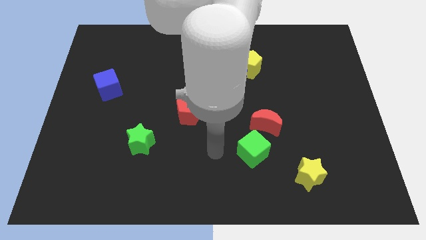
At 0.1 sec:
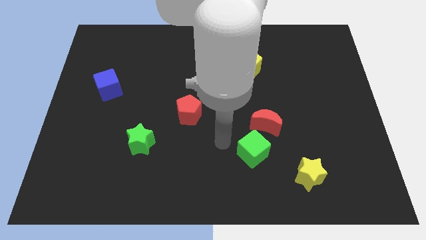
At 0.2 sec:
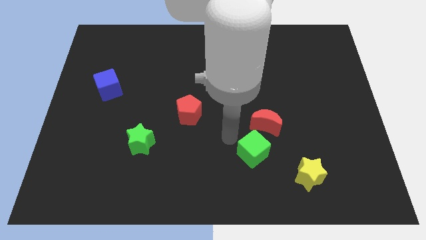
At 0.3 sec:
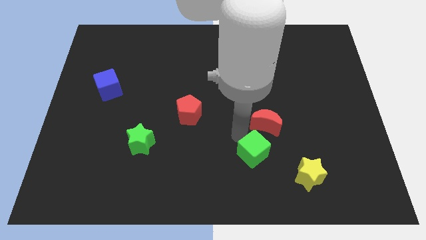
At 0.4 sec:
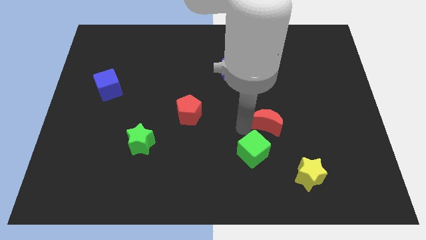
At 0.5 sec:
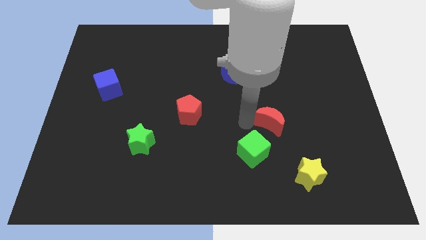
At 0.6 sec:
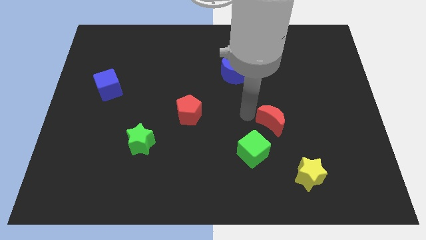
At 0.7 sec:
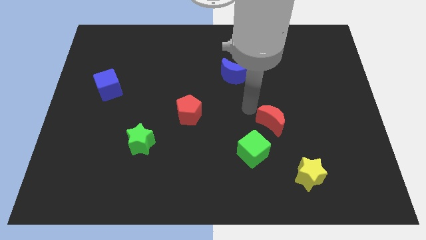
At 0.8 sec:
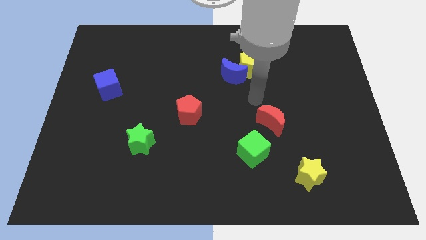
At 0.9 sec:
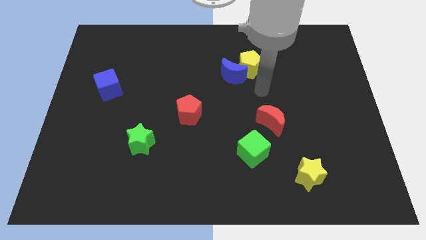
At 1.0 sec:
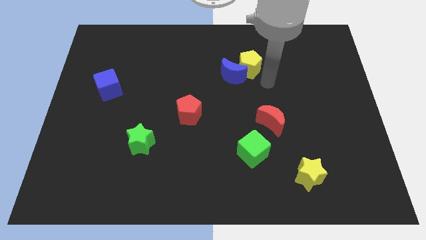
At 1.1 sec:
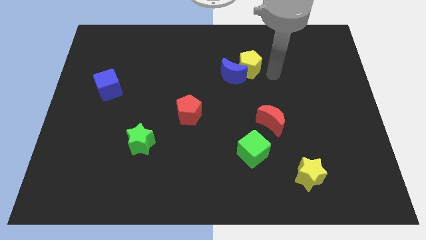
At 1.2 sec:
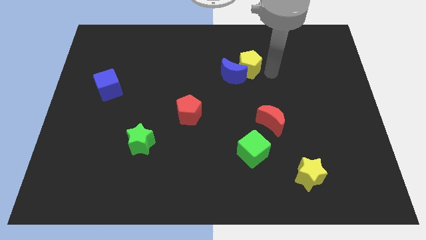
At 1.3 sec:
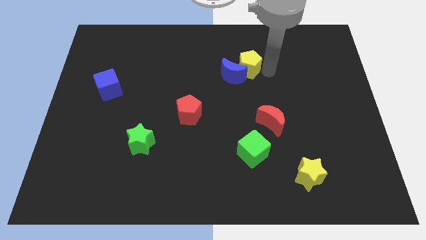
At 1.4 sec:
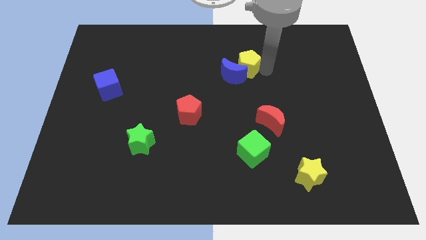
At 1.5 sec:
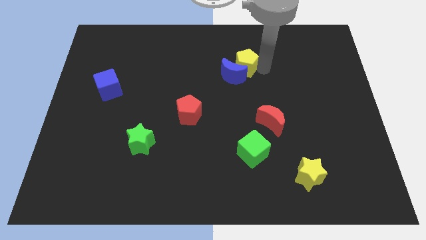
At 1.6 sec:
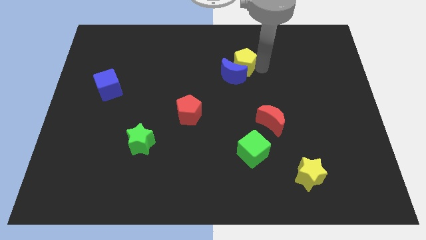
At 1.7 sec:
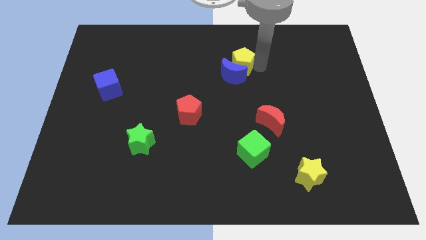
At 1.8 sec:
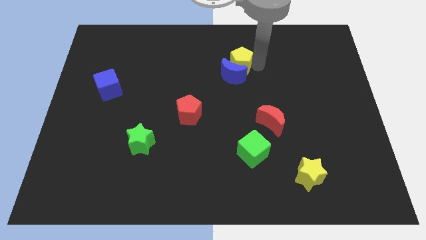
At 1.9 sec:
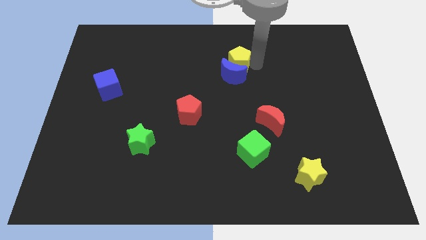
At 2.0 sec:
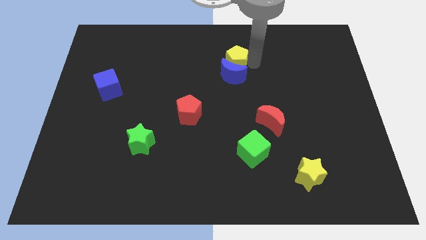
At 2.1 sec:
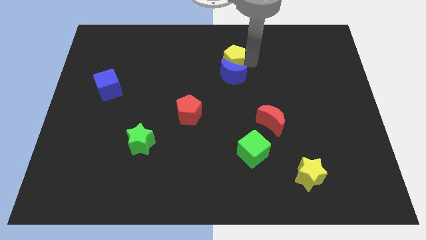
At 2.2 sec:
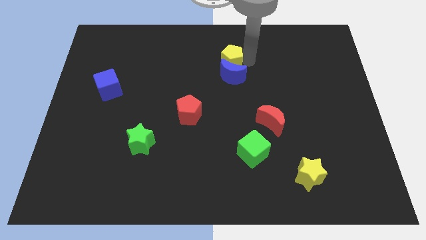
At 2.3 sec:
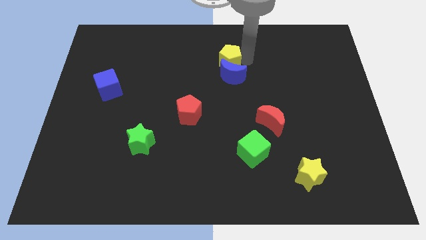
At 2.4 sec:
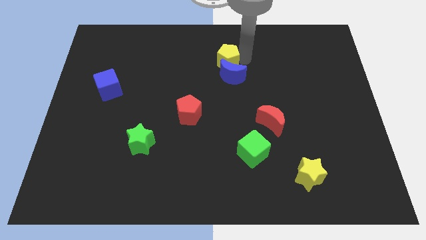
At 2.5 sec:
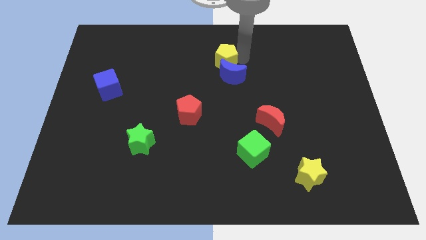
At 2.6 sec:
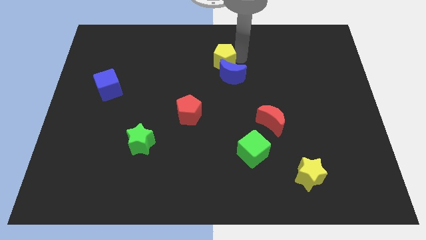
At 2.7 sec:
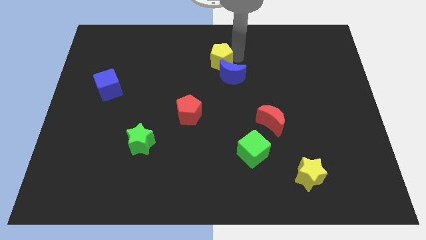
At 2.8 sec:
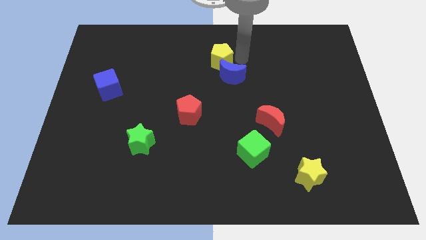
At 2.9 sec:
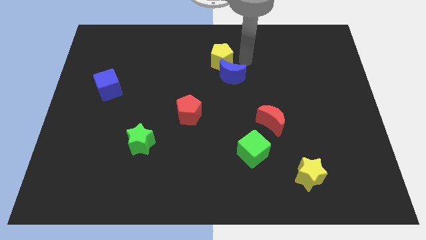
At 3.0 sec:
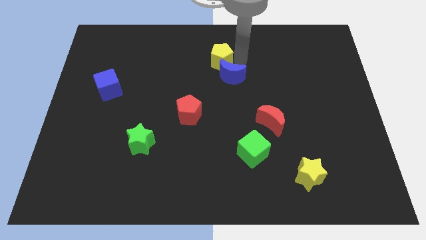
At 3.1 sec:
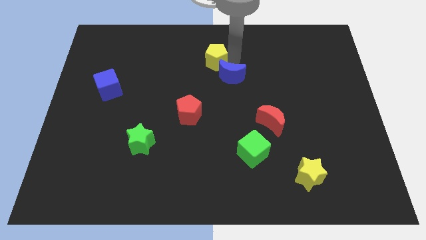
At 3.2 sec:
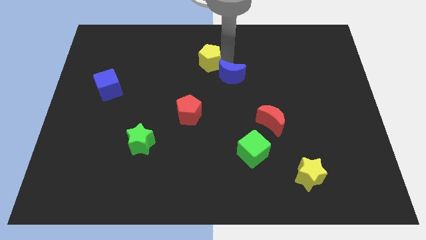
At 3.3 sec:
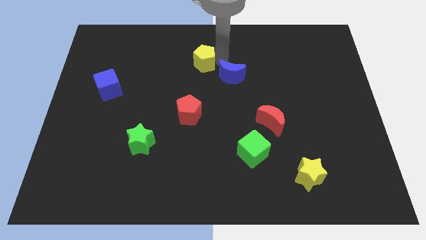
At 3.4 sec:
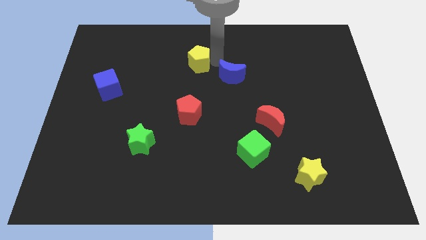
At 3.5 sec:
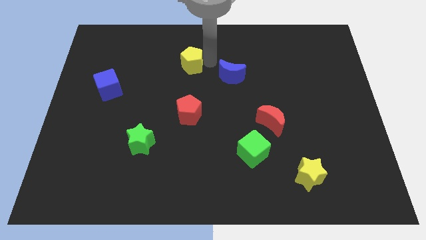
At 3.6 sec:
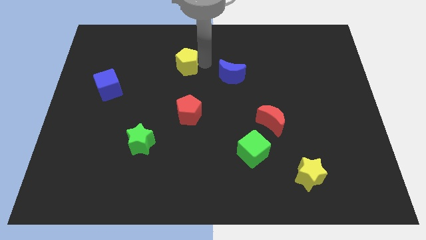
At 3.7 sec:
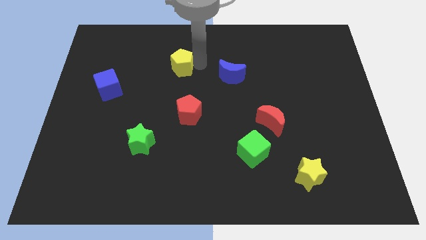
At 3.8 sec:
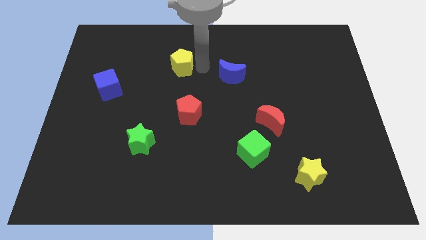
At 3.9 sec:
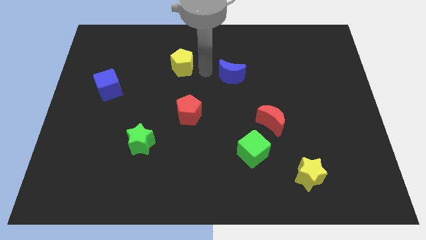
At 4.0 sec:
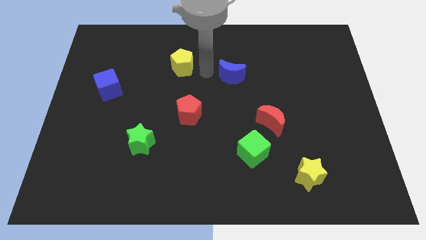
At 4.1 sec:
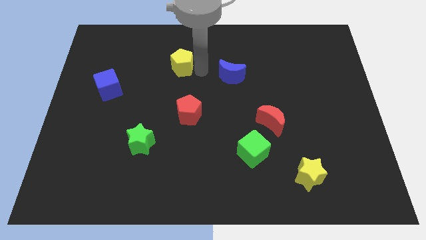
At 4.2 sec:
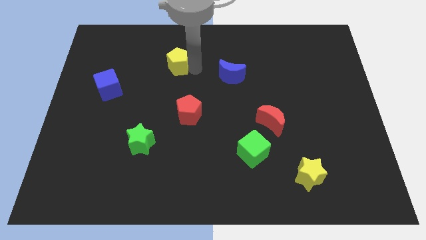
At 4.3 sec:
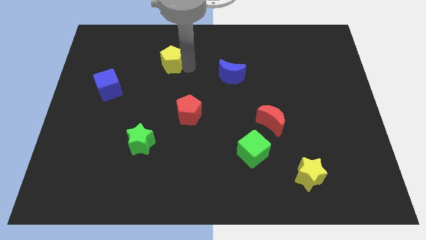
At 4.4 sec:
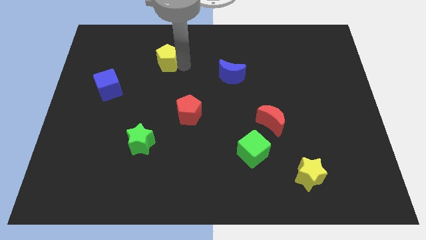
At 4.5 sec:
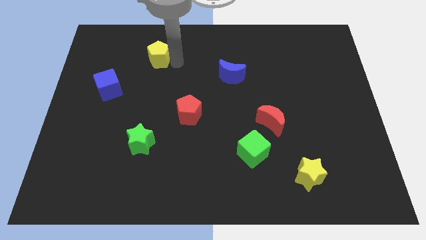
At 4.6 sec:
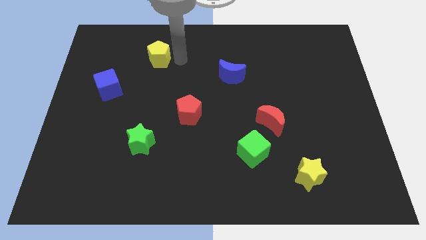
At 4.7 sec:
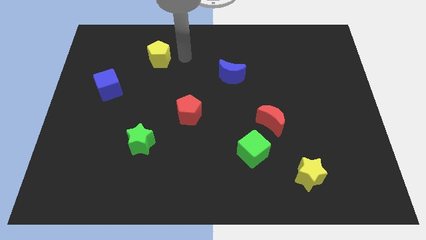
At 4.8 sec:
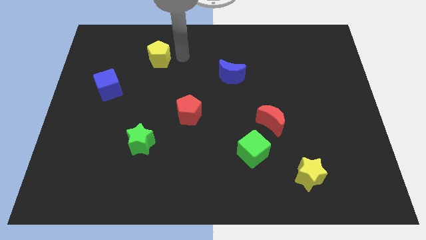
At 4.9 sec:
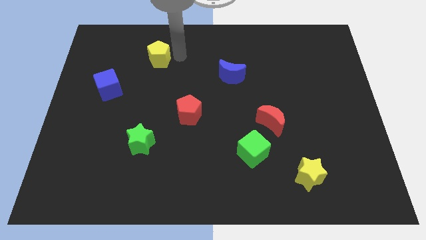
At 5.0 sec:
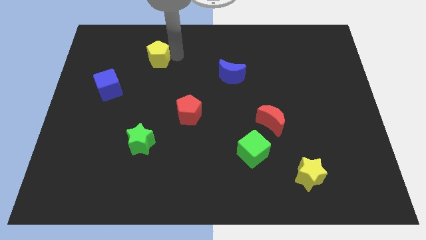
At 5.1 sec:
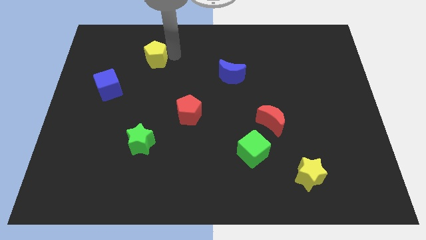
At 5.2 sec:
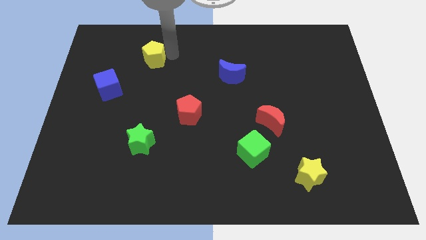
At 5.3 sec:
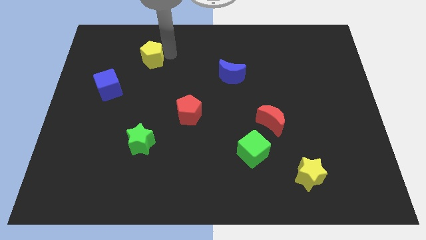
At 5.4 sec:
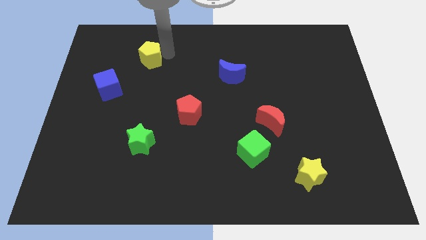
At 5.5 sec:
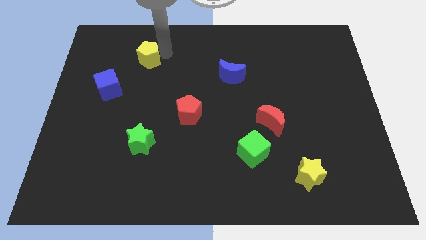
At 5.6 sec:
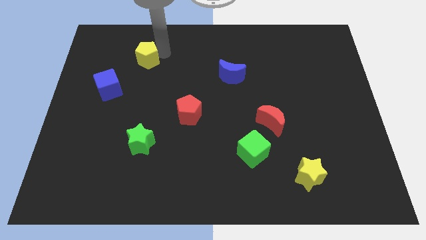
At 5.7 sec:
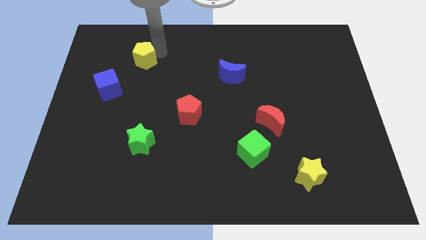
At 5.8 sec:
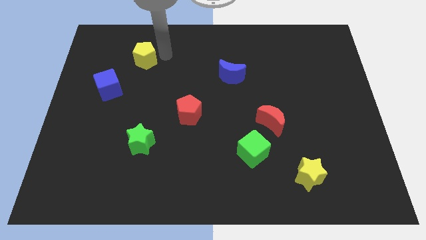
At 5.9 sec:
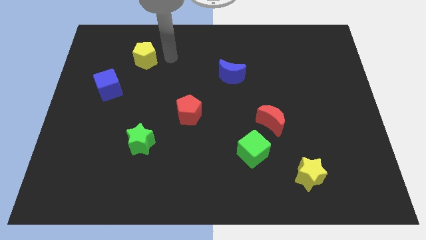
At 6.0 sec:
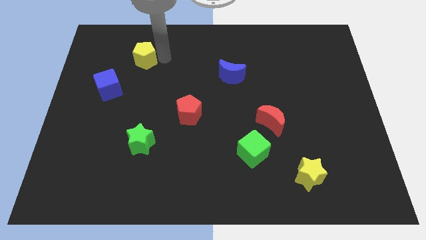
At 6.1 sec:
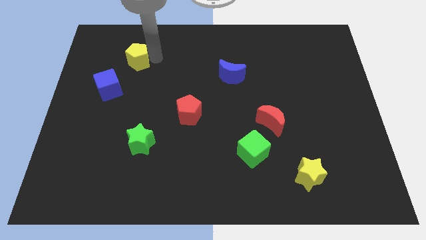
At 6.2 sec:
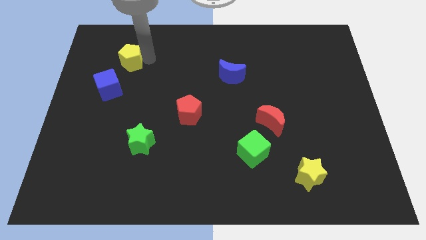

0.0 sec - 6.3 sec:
slide the yellow pentagon to the top side of the blue cube

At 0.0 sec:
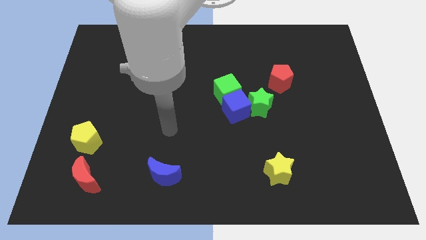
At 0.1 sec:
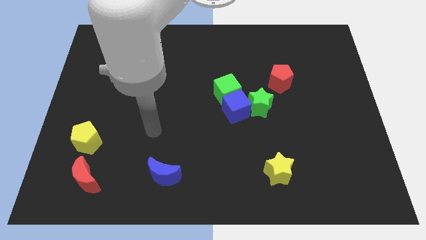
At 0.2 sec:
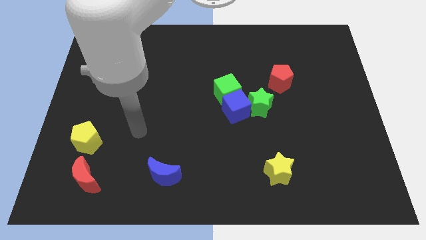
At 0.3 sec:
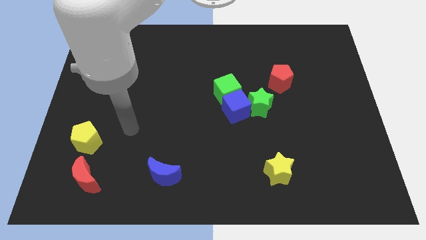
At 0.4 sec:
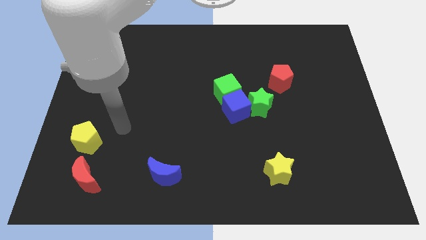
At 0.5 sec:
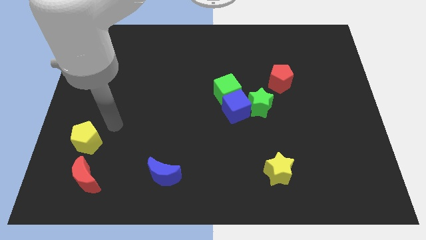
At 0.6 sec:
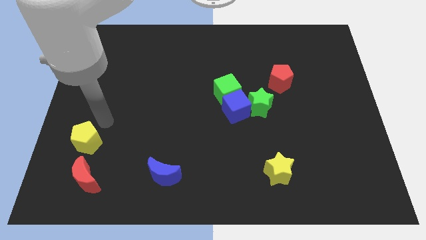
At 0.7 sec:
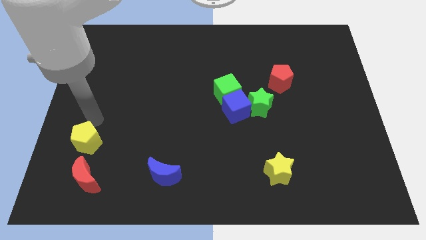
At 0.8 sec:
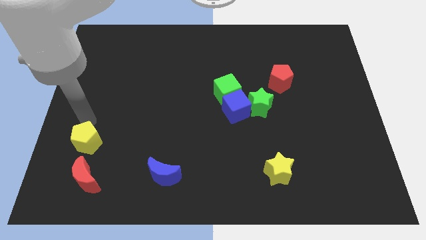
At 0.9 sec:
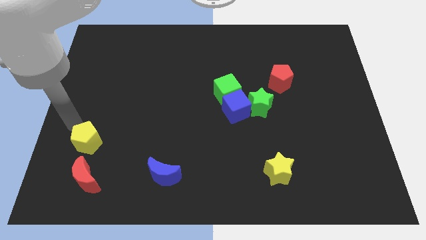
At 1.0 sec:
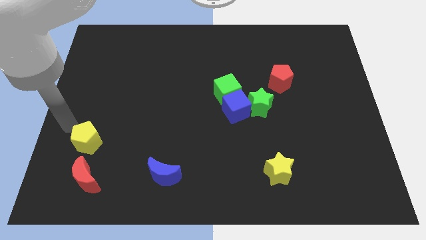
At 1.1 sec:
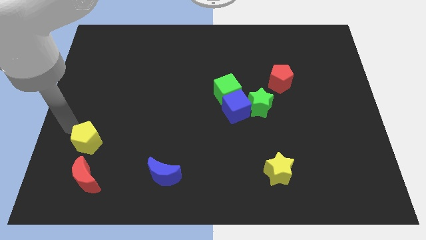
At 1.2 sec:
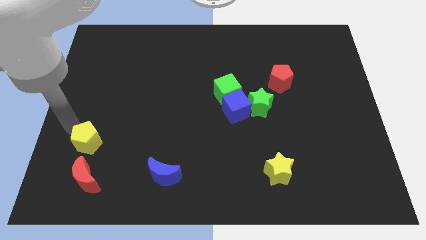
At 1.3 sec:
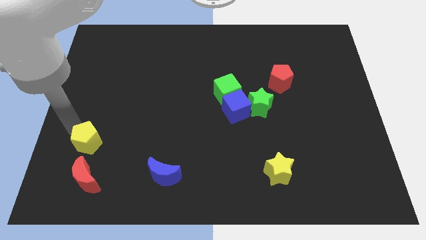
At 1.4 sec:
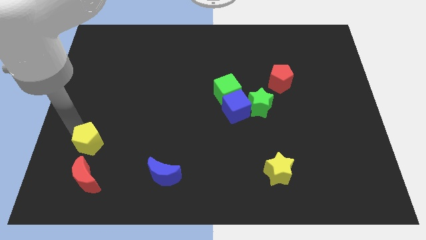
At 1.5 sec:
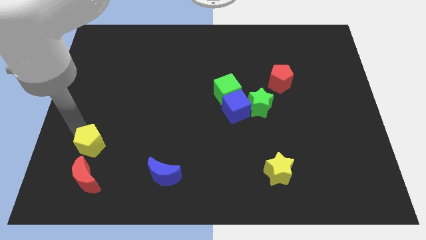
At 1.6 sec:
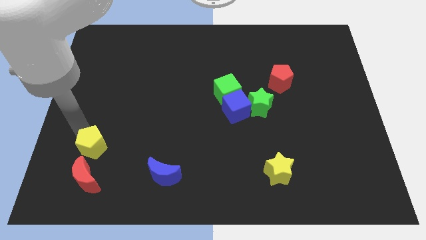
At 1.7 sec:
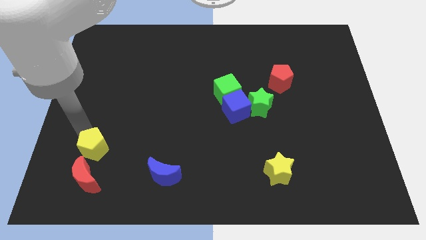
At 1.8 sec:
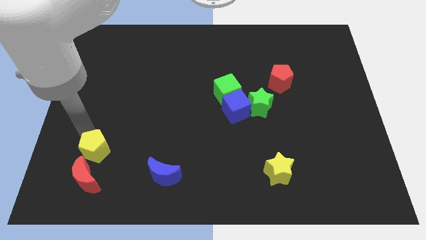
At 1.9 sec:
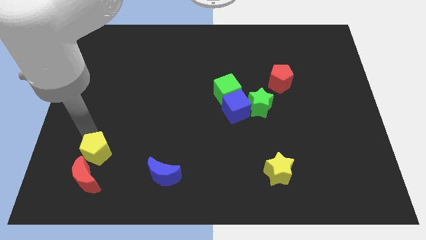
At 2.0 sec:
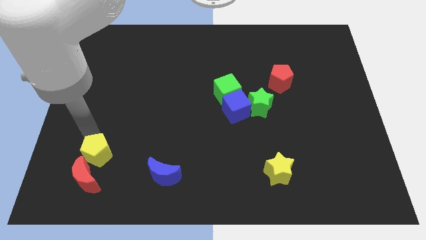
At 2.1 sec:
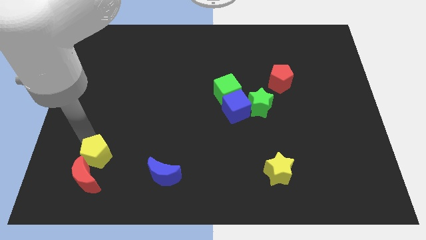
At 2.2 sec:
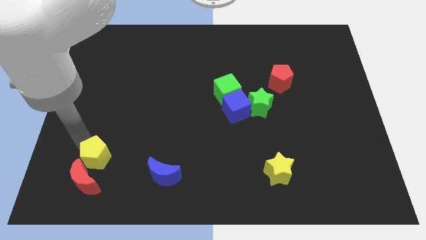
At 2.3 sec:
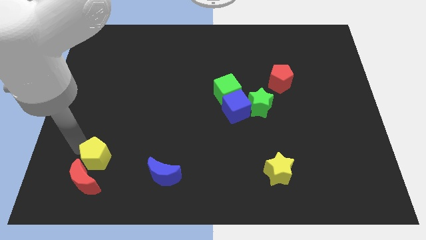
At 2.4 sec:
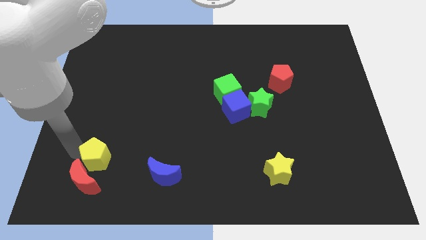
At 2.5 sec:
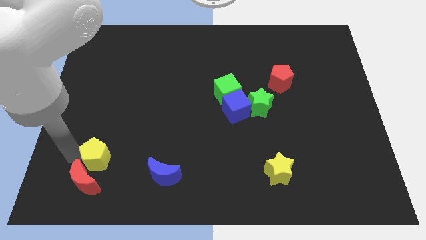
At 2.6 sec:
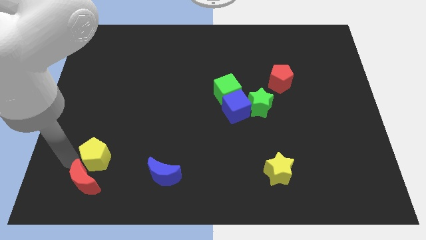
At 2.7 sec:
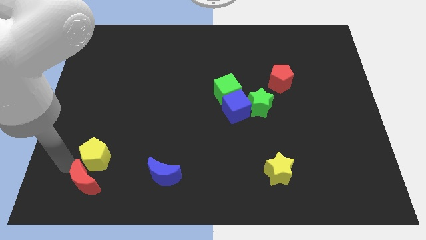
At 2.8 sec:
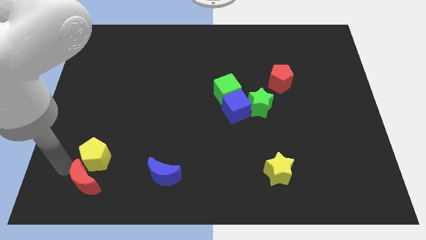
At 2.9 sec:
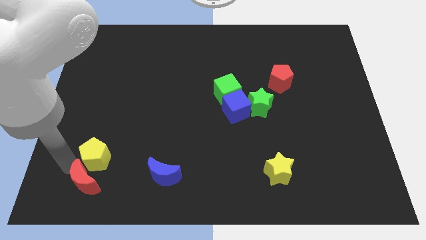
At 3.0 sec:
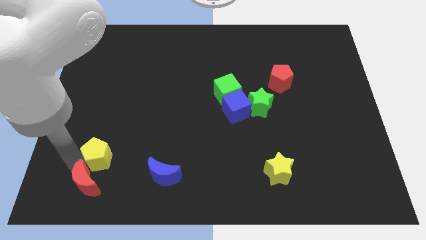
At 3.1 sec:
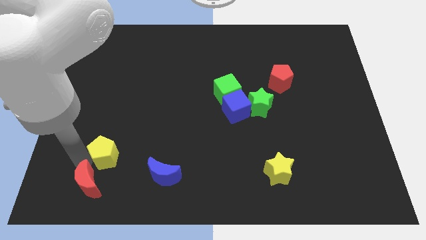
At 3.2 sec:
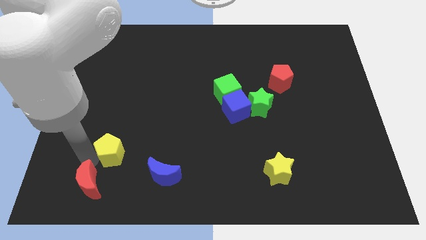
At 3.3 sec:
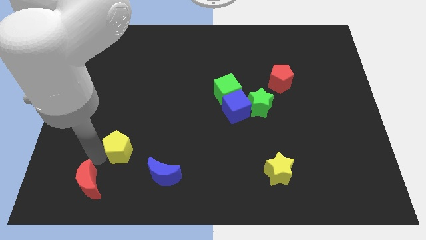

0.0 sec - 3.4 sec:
put the yellow pentagon to the top left side of the blue moon
